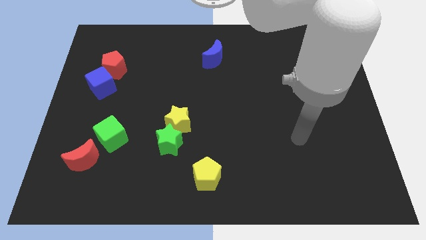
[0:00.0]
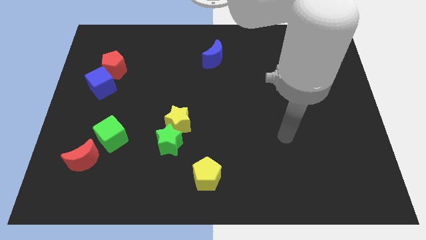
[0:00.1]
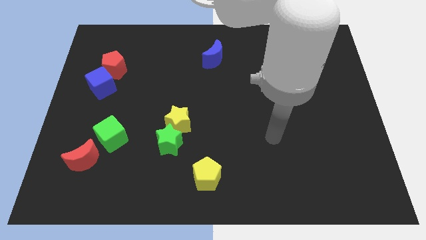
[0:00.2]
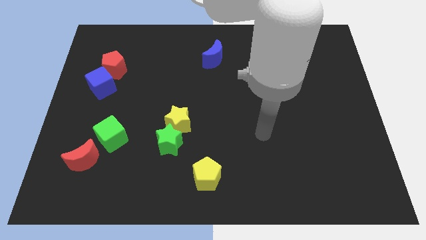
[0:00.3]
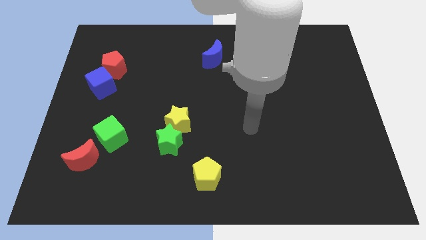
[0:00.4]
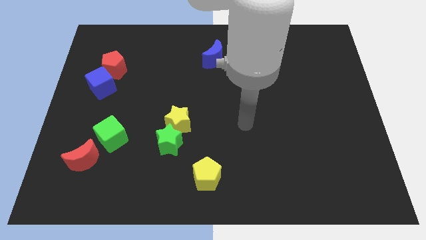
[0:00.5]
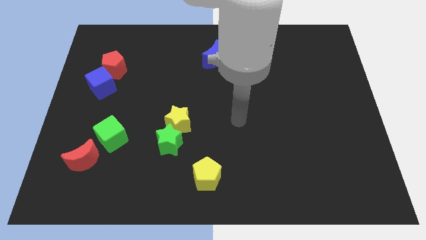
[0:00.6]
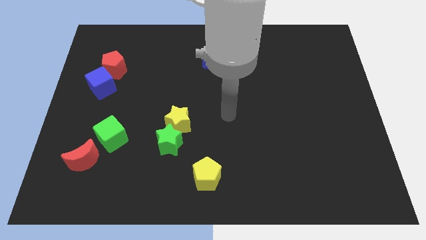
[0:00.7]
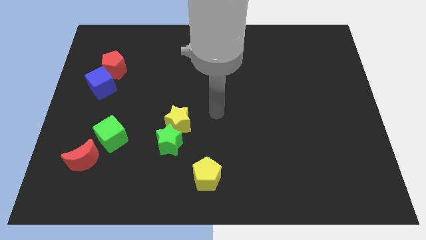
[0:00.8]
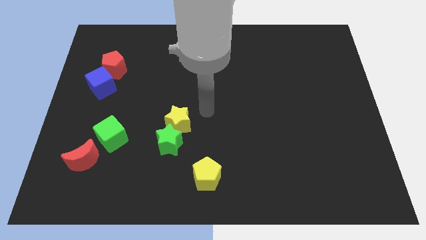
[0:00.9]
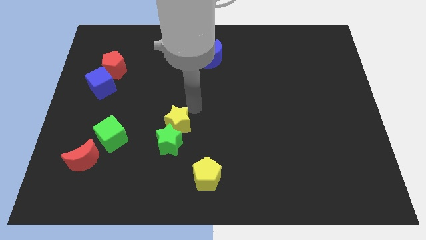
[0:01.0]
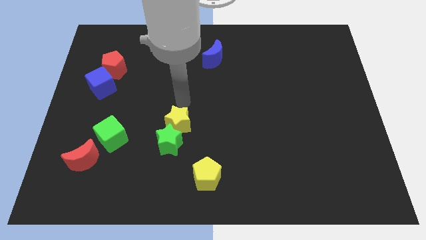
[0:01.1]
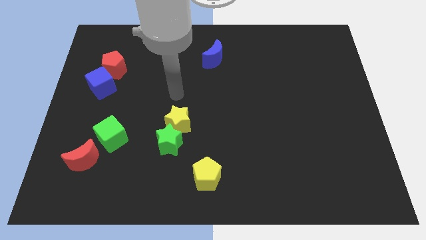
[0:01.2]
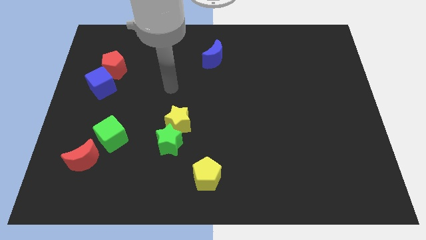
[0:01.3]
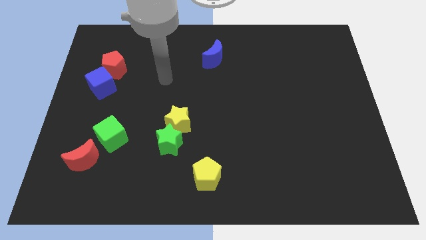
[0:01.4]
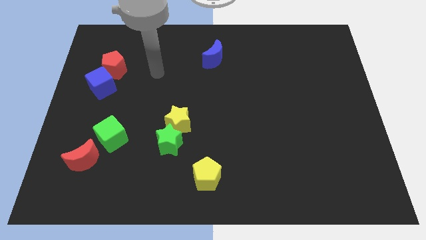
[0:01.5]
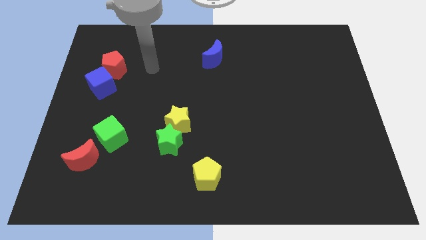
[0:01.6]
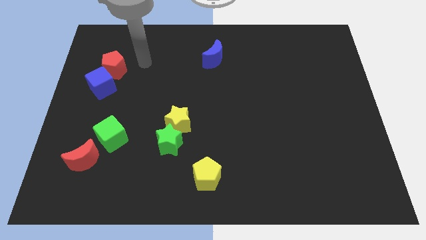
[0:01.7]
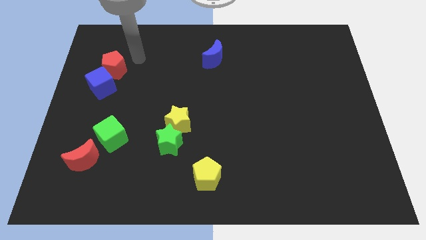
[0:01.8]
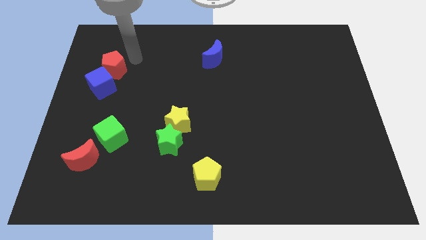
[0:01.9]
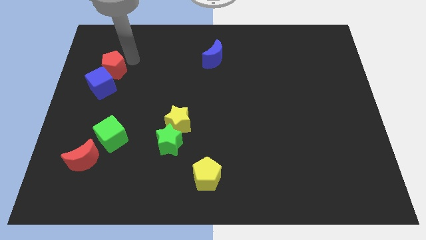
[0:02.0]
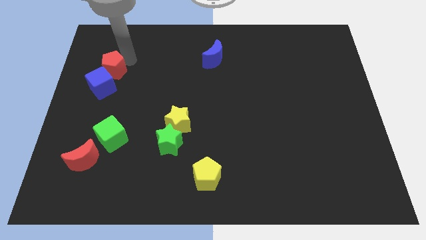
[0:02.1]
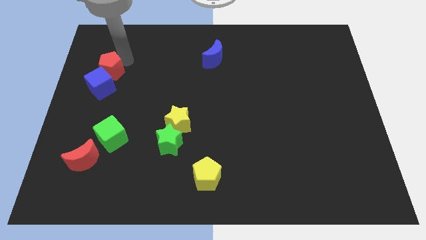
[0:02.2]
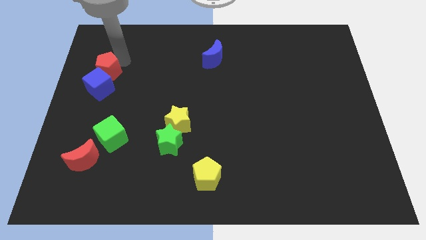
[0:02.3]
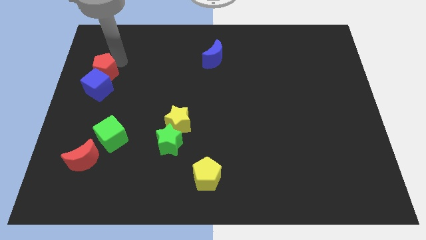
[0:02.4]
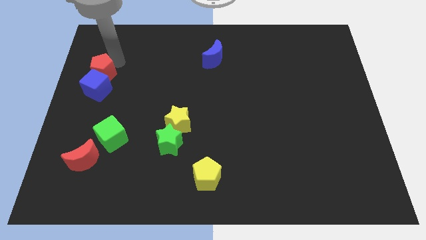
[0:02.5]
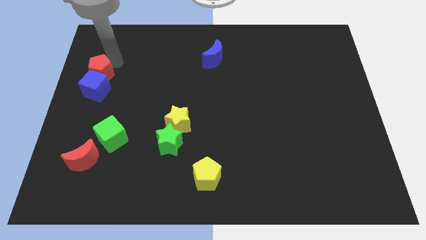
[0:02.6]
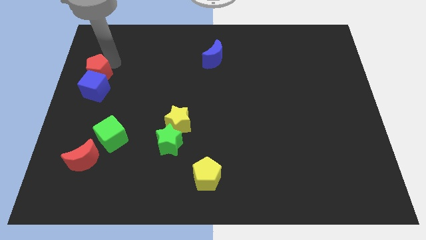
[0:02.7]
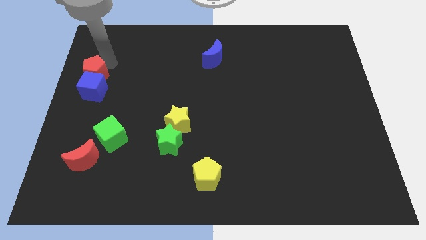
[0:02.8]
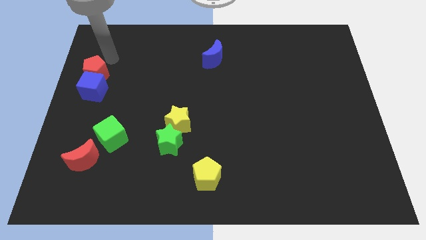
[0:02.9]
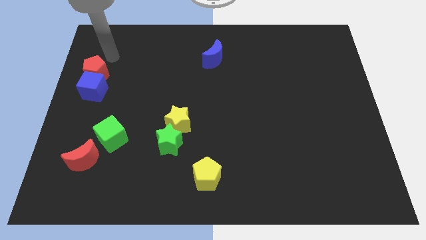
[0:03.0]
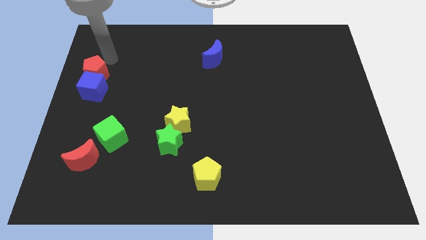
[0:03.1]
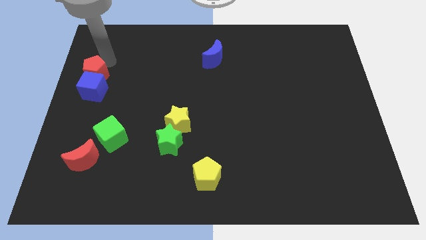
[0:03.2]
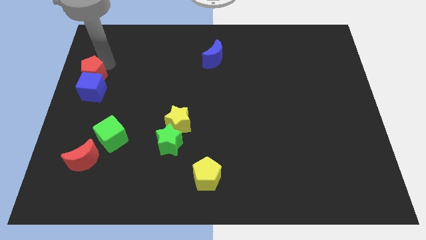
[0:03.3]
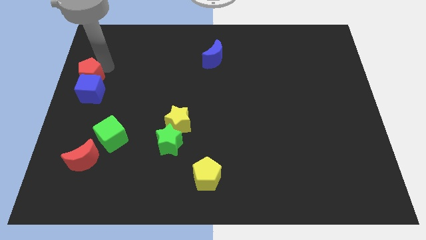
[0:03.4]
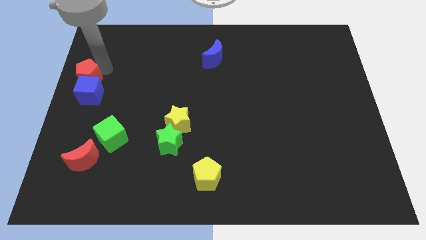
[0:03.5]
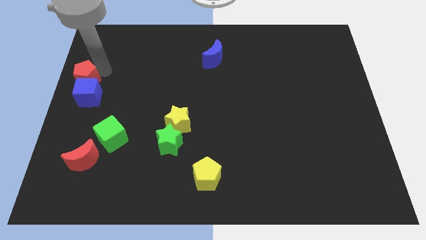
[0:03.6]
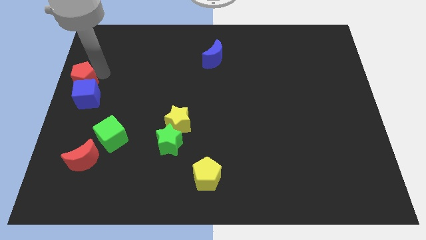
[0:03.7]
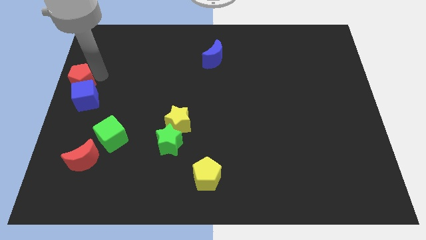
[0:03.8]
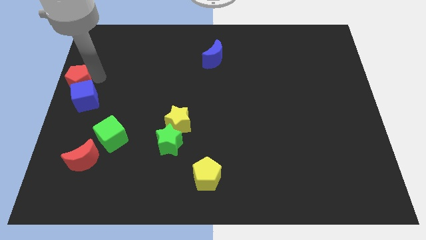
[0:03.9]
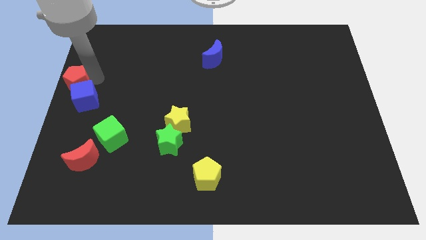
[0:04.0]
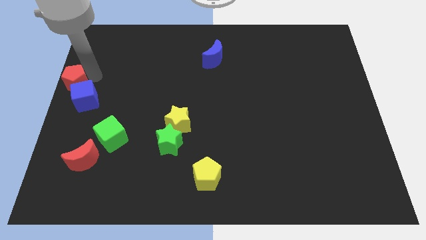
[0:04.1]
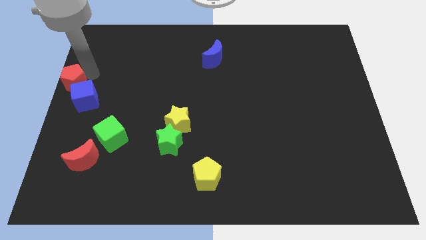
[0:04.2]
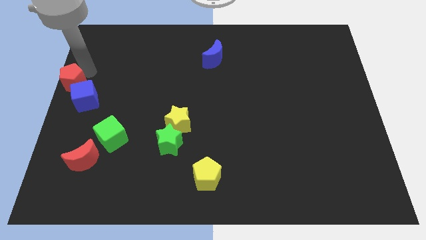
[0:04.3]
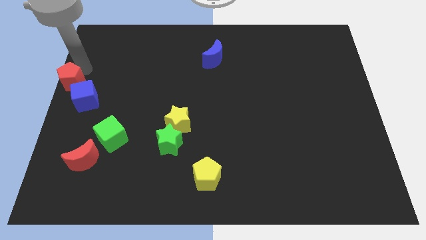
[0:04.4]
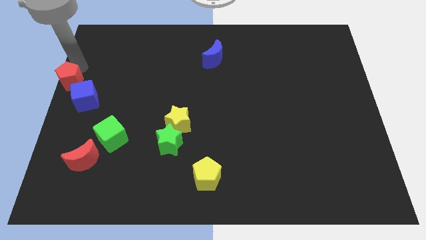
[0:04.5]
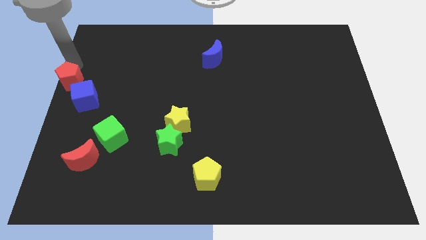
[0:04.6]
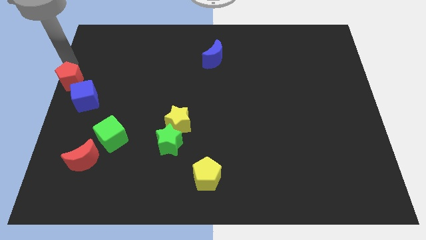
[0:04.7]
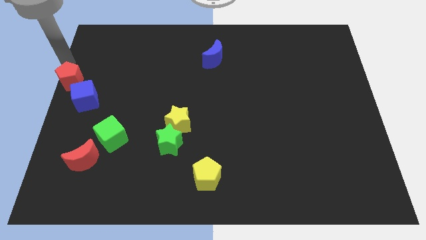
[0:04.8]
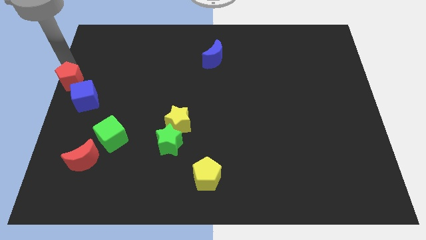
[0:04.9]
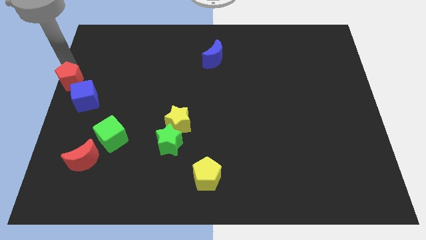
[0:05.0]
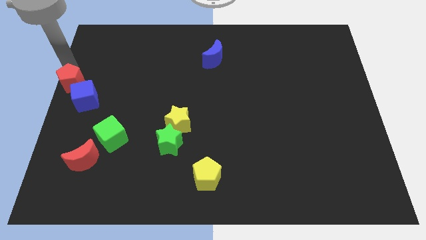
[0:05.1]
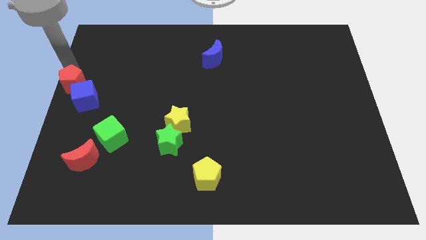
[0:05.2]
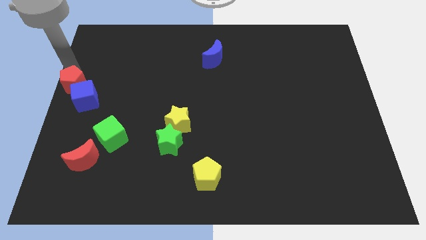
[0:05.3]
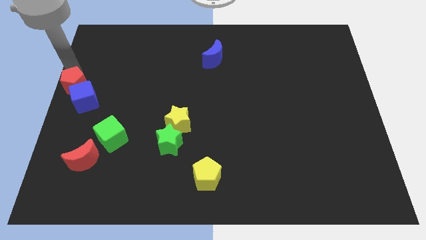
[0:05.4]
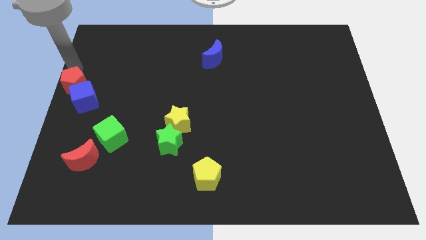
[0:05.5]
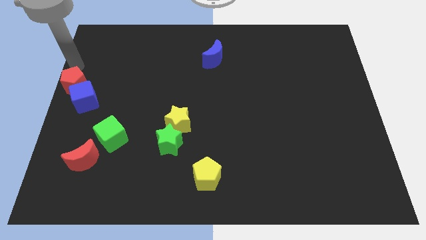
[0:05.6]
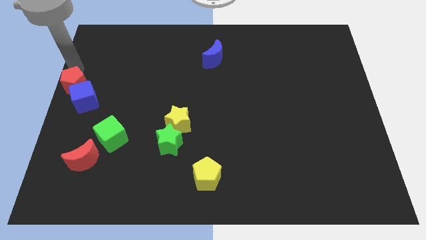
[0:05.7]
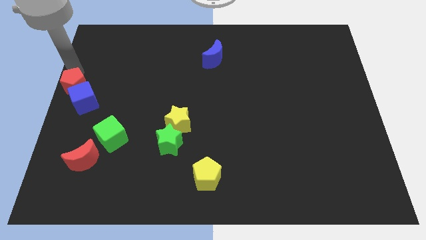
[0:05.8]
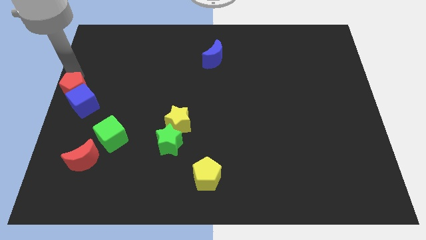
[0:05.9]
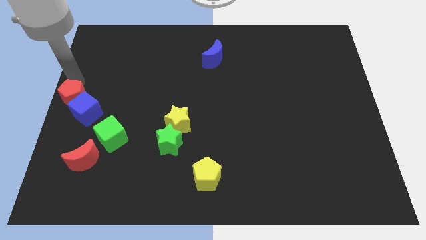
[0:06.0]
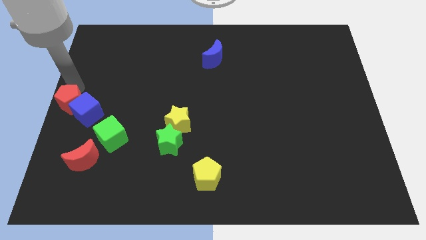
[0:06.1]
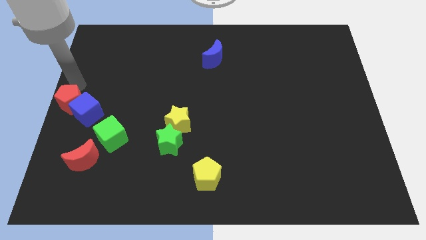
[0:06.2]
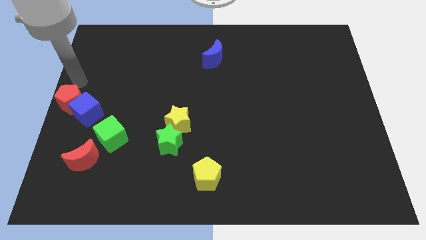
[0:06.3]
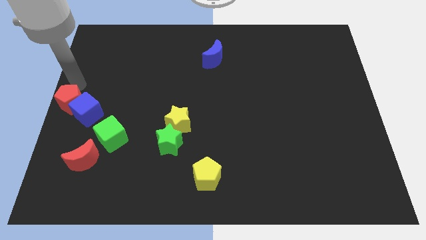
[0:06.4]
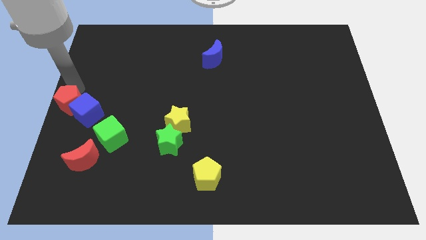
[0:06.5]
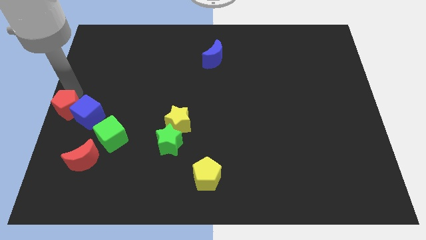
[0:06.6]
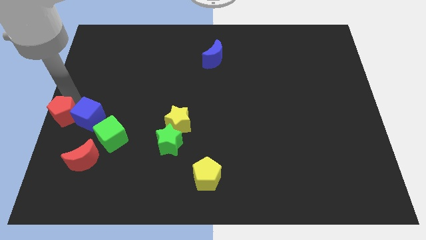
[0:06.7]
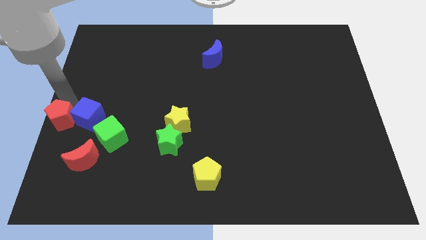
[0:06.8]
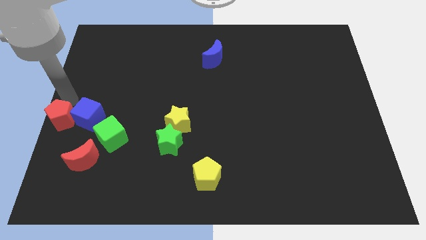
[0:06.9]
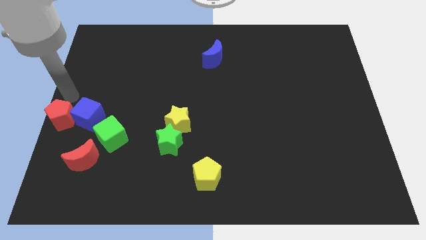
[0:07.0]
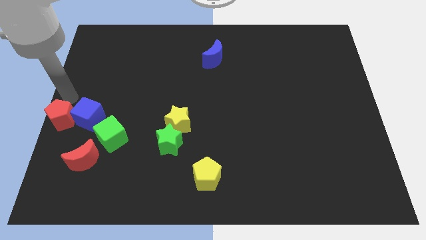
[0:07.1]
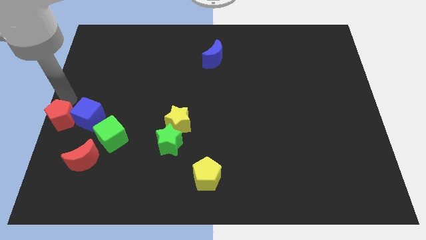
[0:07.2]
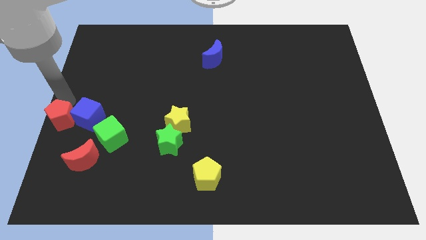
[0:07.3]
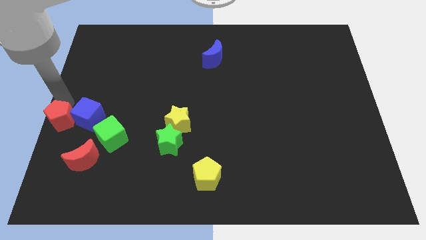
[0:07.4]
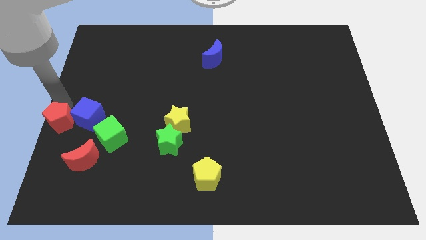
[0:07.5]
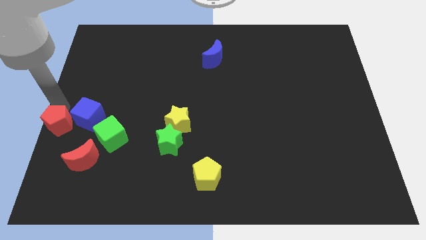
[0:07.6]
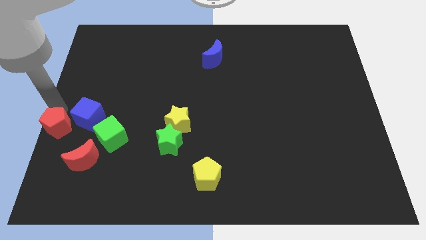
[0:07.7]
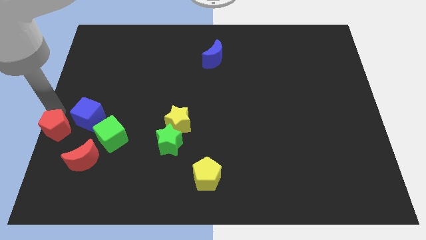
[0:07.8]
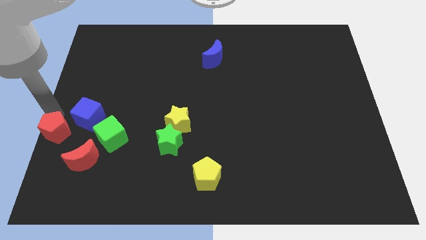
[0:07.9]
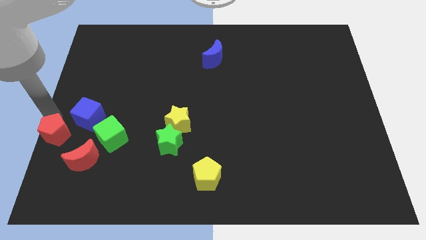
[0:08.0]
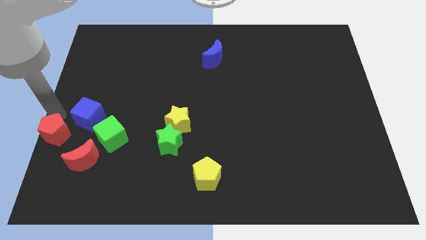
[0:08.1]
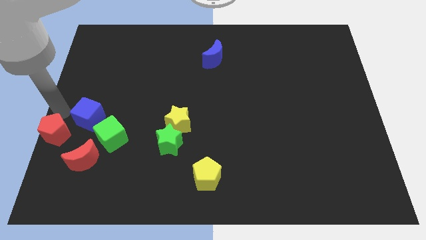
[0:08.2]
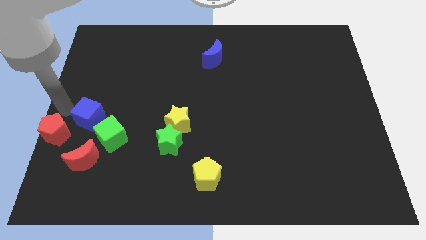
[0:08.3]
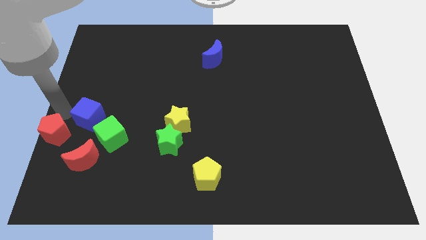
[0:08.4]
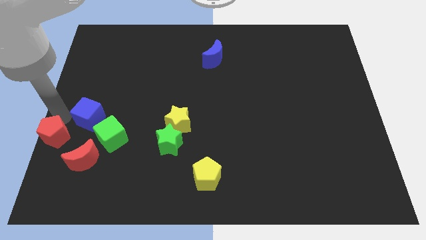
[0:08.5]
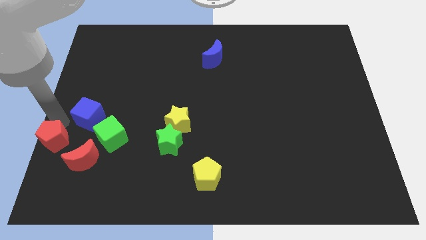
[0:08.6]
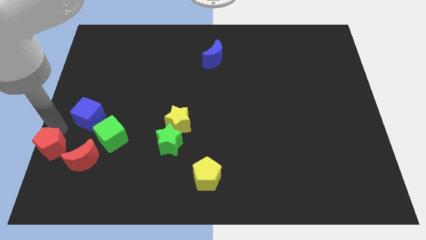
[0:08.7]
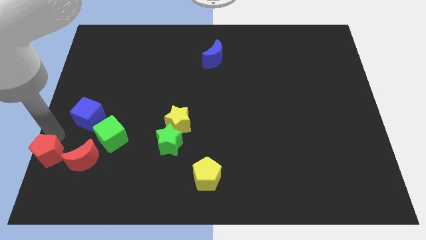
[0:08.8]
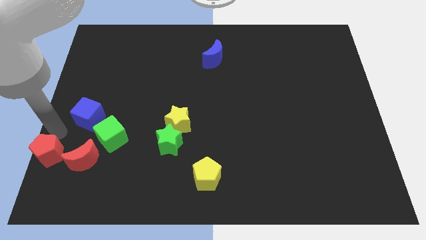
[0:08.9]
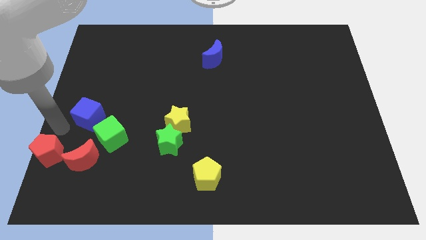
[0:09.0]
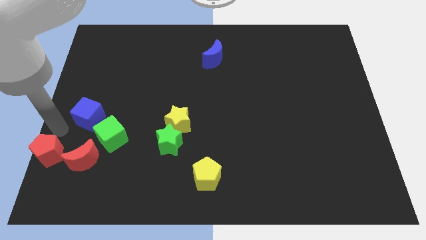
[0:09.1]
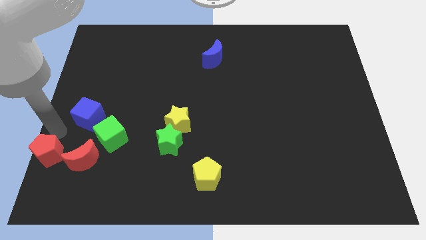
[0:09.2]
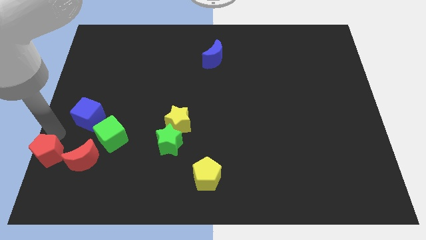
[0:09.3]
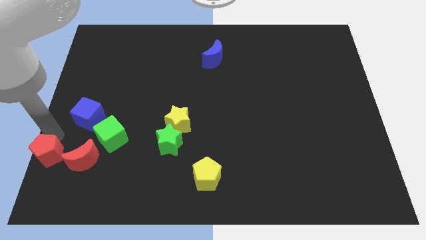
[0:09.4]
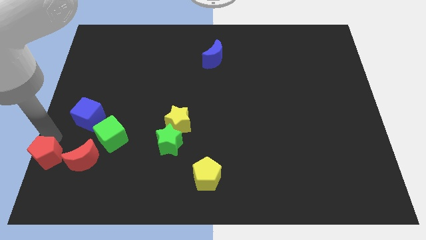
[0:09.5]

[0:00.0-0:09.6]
push the red pentagon to the bottom left corner
